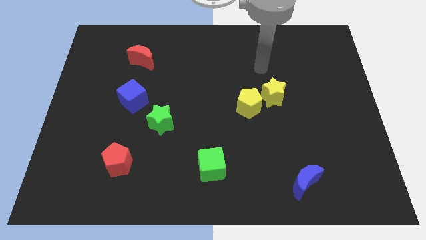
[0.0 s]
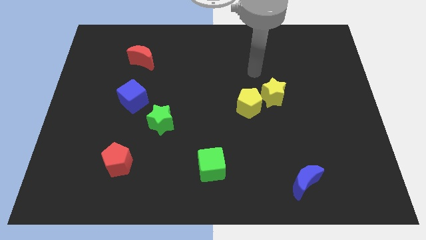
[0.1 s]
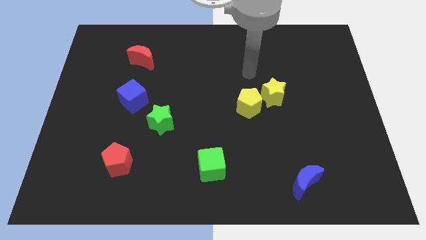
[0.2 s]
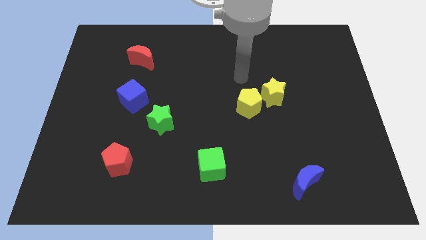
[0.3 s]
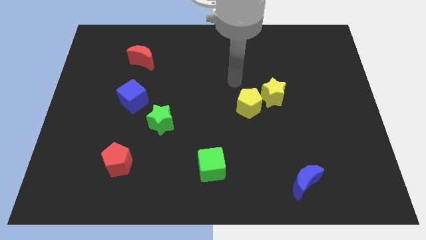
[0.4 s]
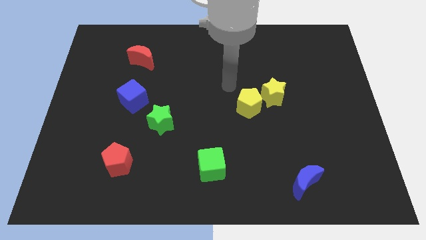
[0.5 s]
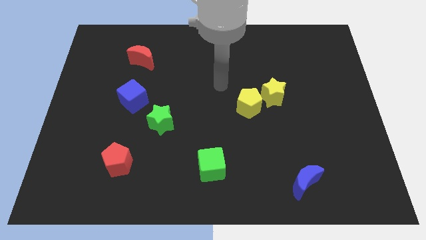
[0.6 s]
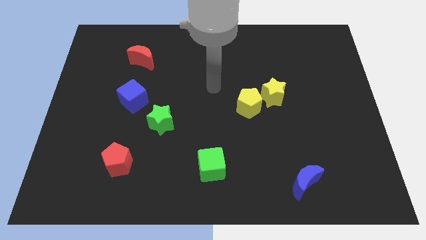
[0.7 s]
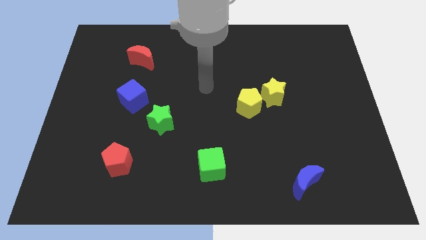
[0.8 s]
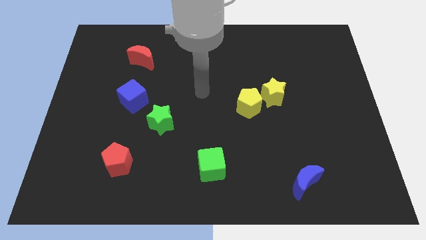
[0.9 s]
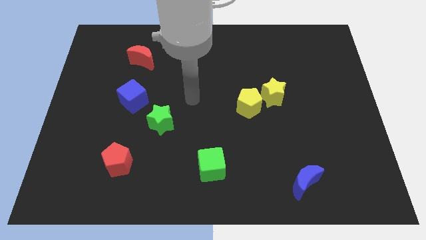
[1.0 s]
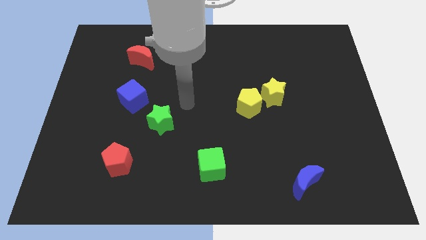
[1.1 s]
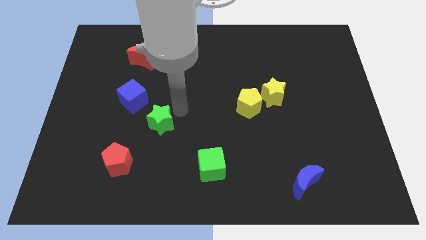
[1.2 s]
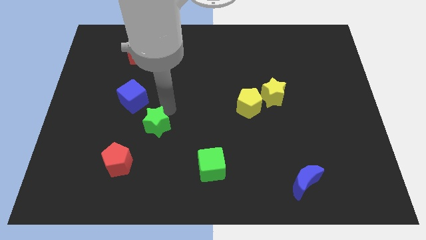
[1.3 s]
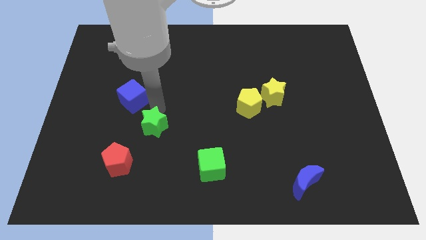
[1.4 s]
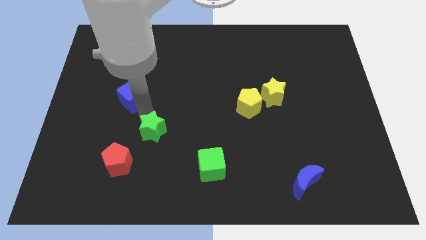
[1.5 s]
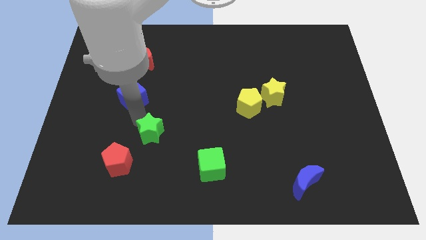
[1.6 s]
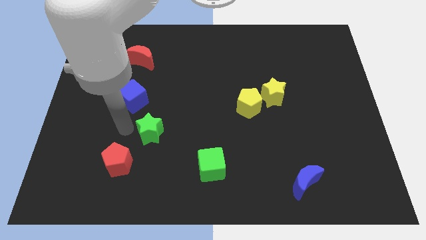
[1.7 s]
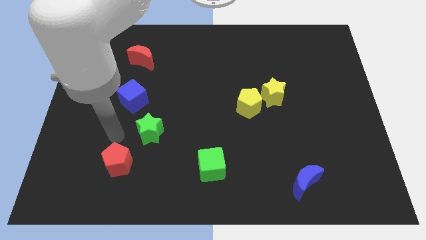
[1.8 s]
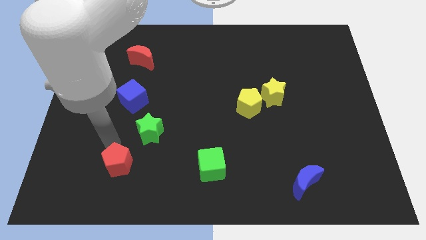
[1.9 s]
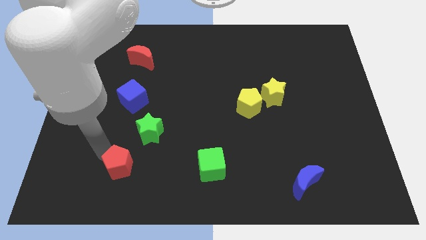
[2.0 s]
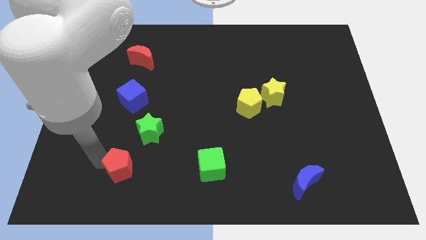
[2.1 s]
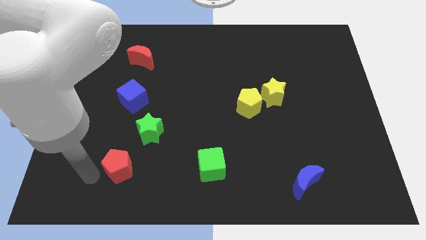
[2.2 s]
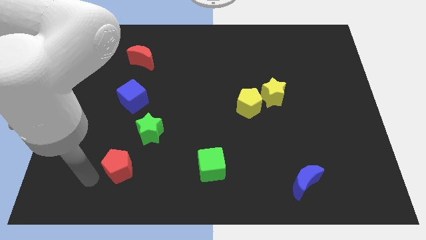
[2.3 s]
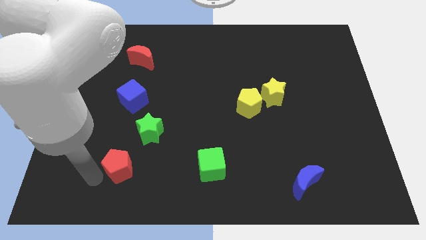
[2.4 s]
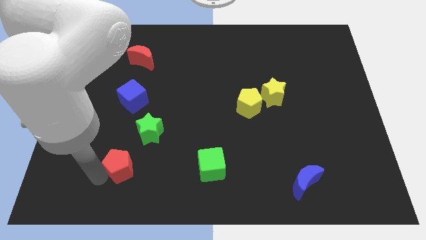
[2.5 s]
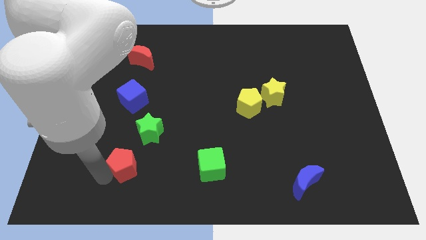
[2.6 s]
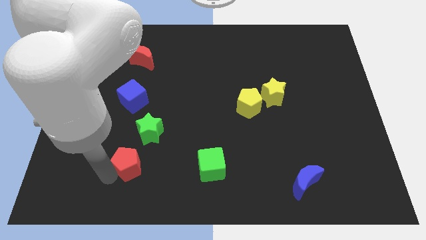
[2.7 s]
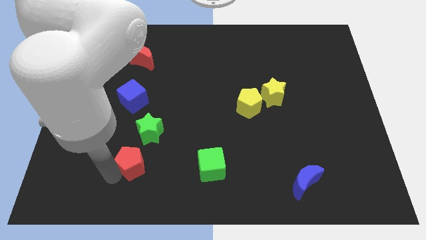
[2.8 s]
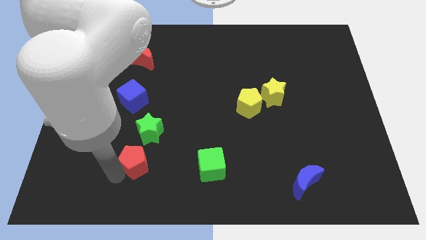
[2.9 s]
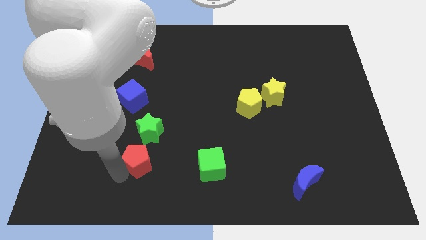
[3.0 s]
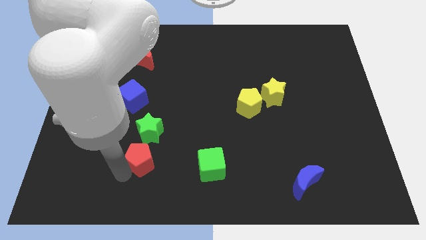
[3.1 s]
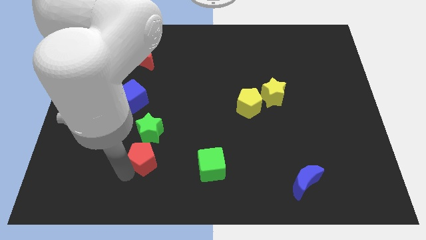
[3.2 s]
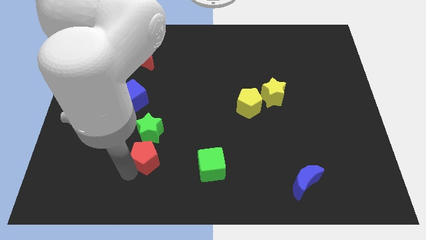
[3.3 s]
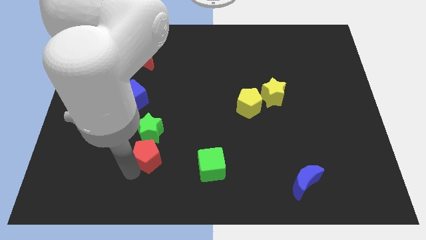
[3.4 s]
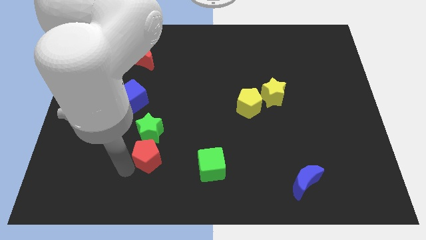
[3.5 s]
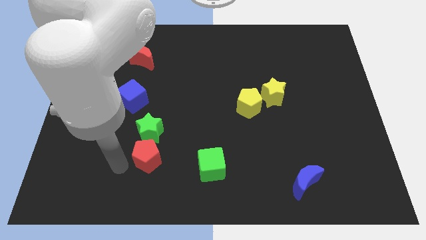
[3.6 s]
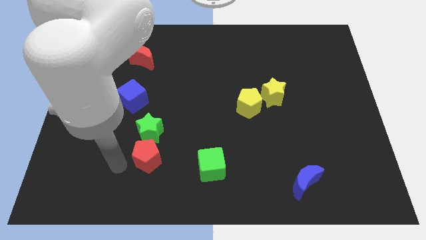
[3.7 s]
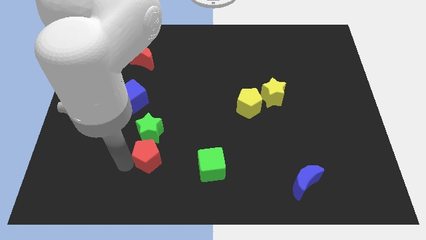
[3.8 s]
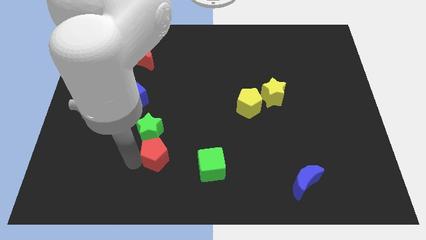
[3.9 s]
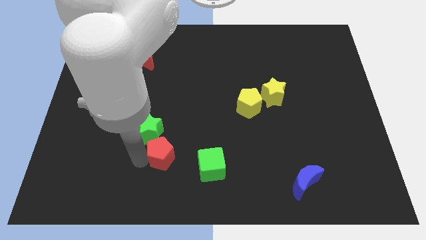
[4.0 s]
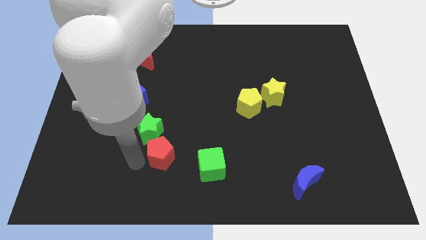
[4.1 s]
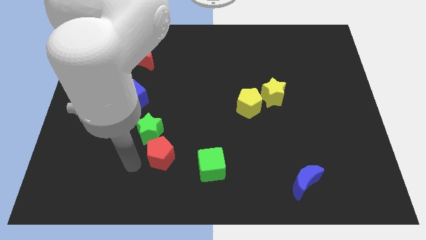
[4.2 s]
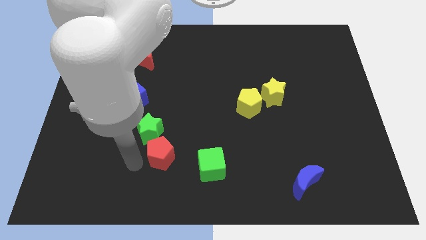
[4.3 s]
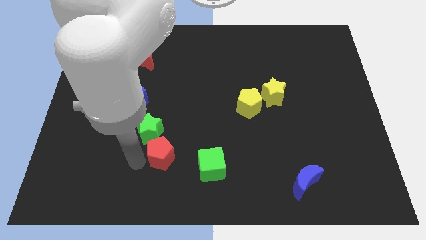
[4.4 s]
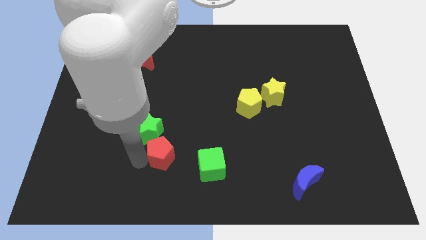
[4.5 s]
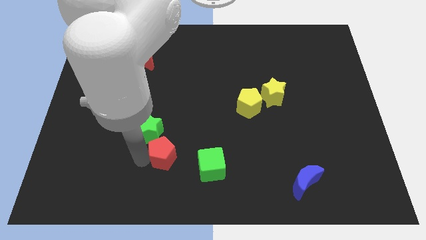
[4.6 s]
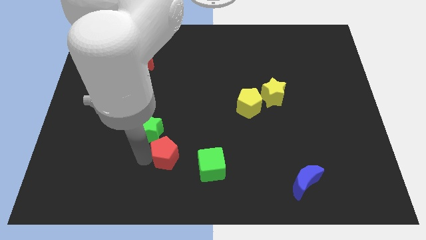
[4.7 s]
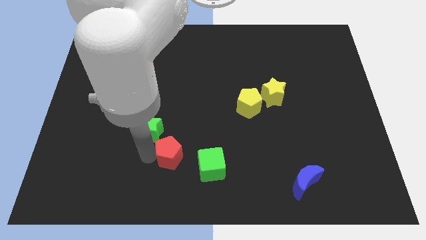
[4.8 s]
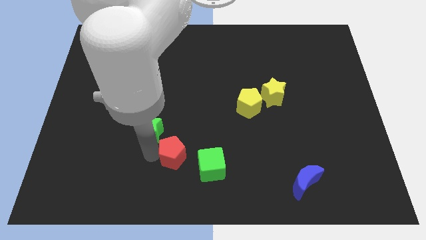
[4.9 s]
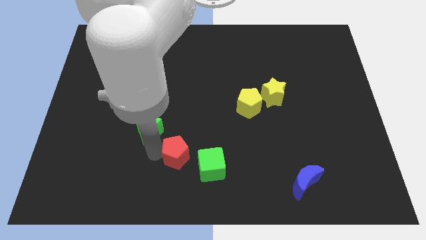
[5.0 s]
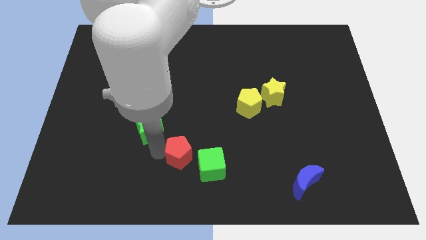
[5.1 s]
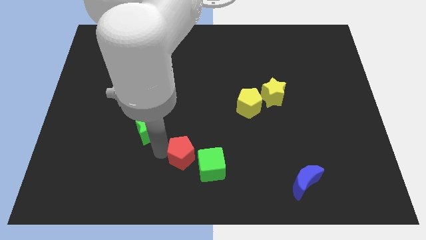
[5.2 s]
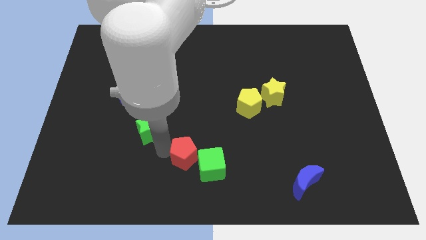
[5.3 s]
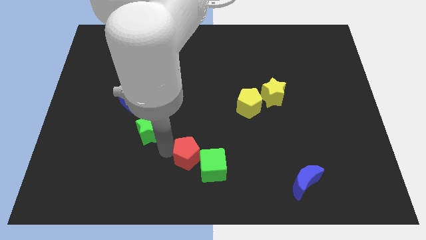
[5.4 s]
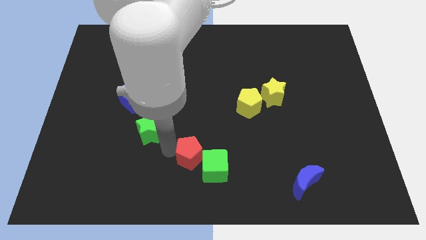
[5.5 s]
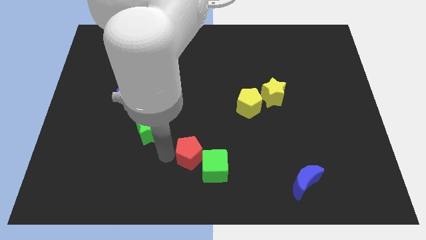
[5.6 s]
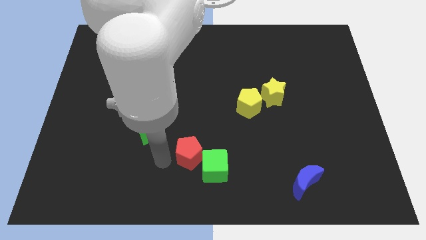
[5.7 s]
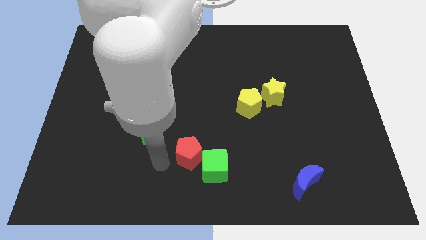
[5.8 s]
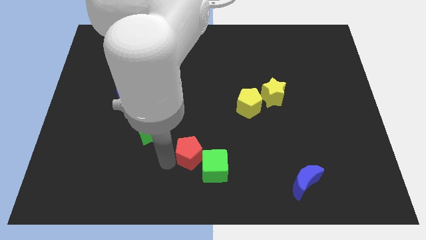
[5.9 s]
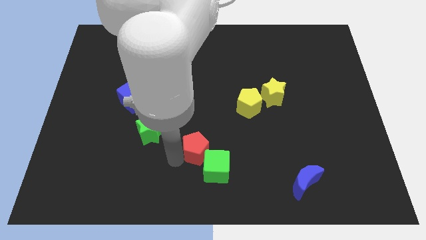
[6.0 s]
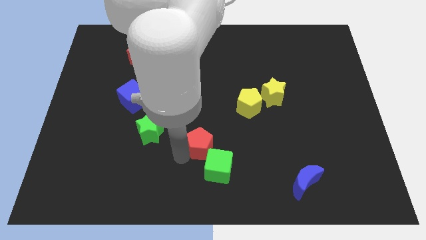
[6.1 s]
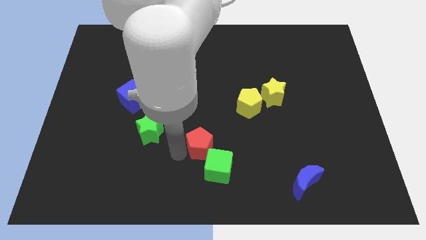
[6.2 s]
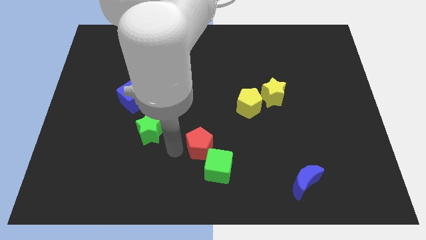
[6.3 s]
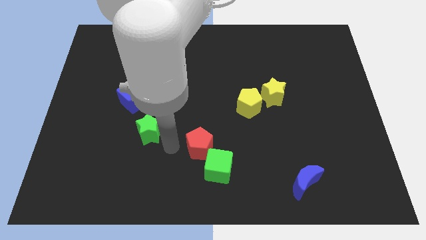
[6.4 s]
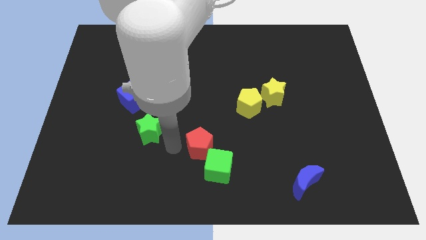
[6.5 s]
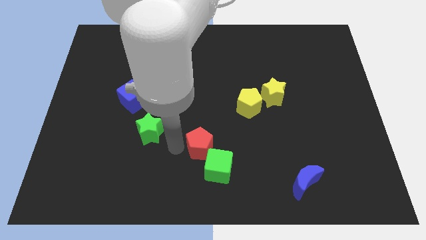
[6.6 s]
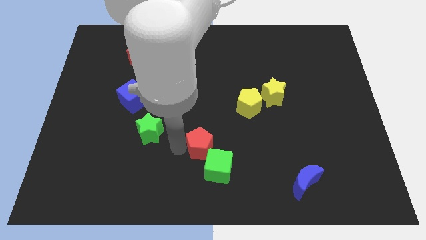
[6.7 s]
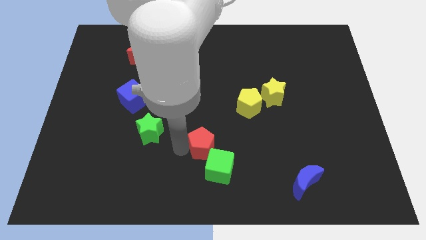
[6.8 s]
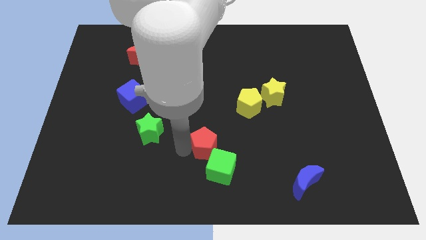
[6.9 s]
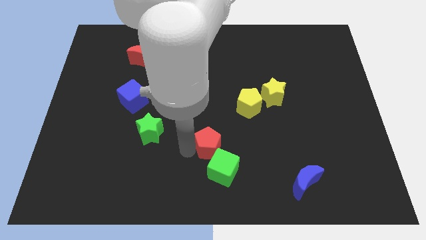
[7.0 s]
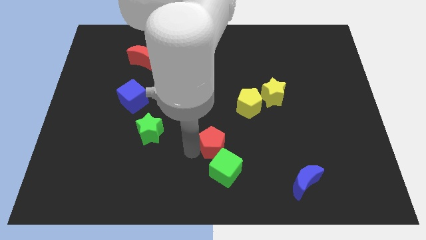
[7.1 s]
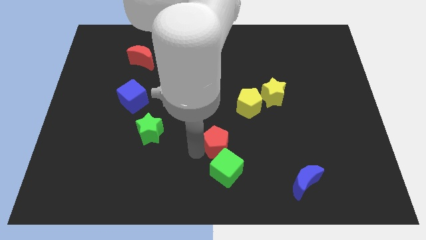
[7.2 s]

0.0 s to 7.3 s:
push the red pentagon to the right

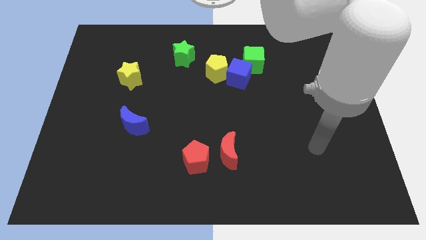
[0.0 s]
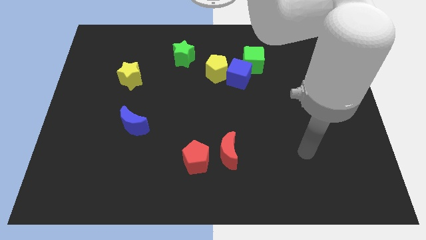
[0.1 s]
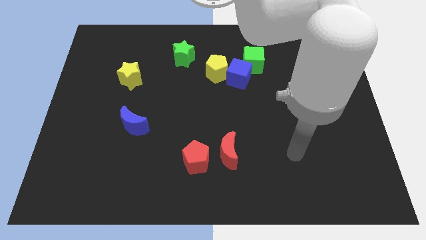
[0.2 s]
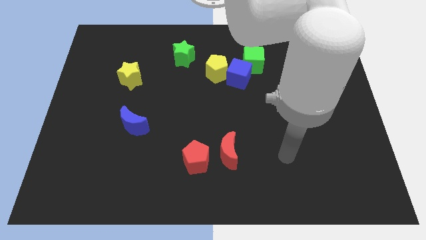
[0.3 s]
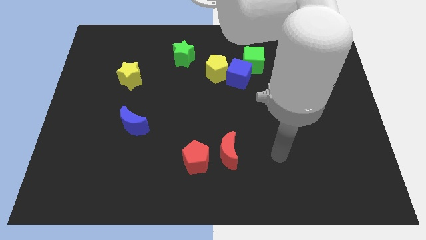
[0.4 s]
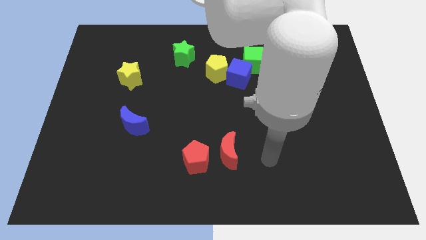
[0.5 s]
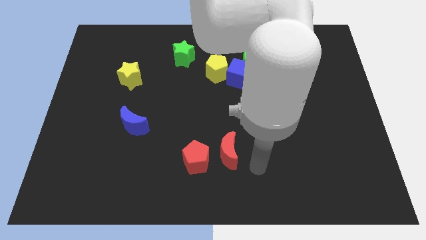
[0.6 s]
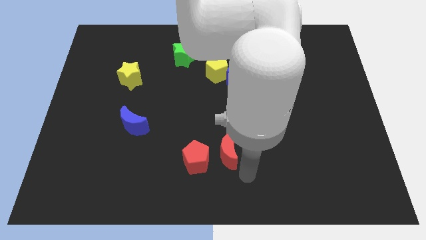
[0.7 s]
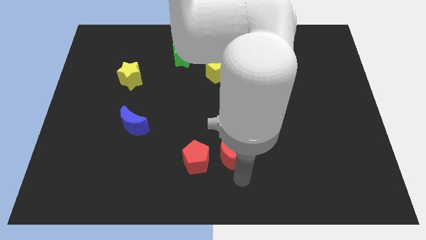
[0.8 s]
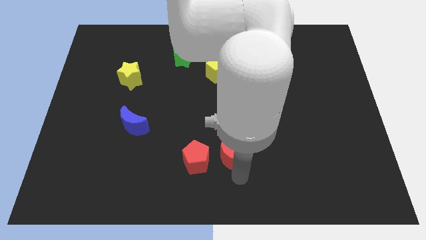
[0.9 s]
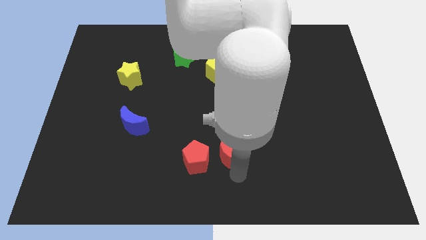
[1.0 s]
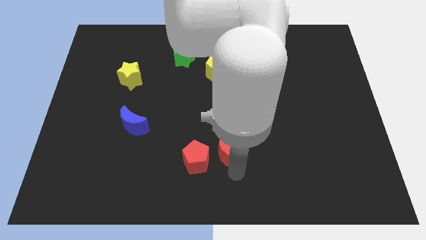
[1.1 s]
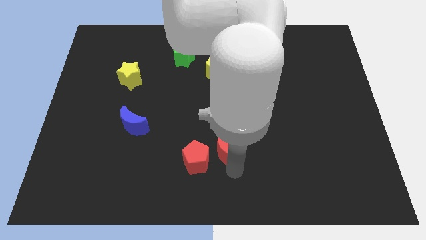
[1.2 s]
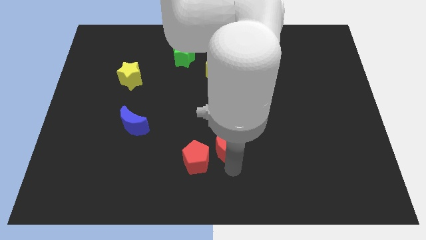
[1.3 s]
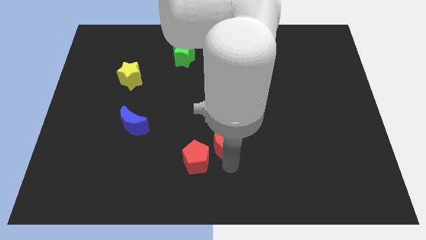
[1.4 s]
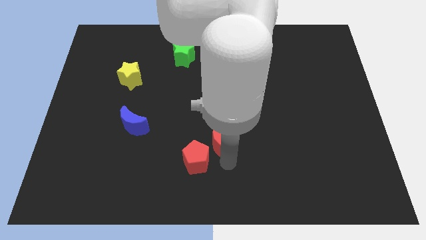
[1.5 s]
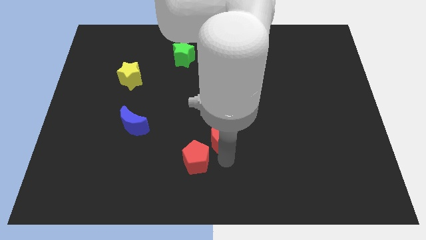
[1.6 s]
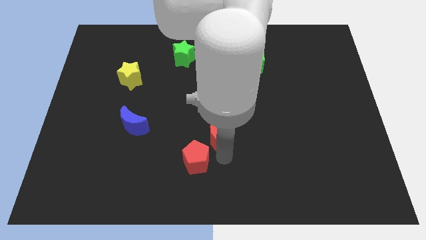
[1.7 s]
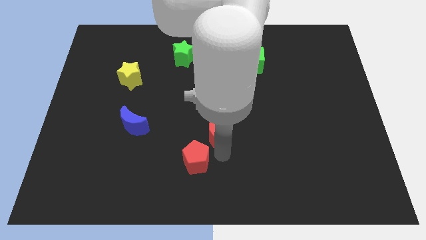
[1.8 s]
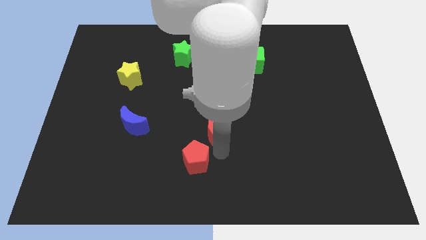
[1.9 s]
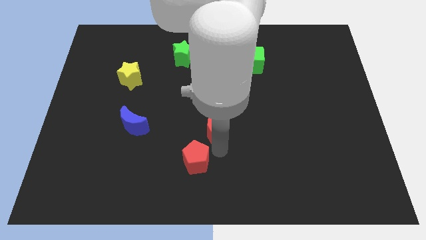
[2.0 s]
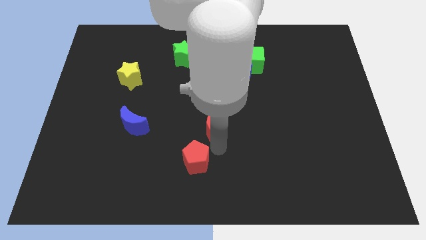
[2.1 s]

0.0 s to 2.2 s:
slightly slide the red moon upwards and then left
